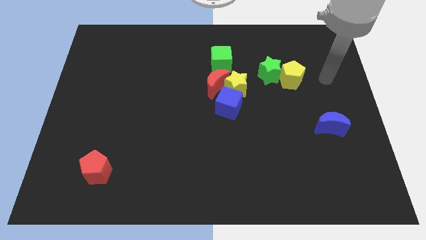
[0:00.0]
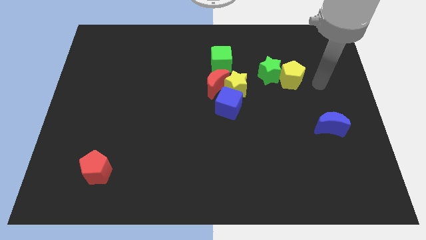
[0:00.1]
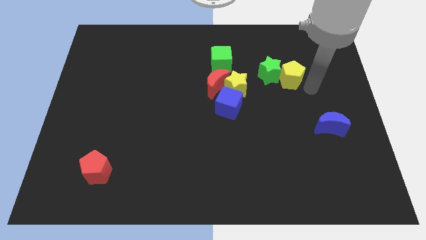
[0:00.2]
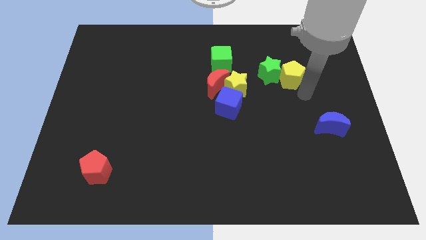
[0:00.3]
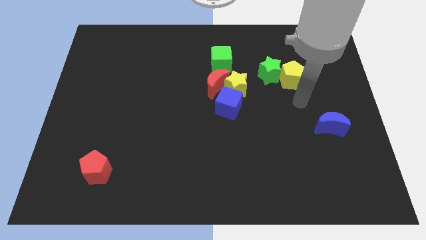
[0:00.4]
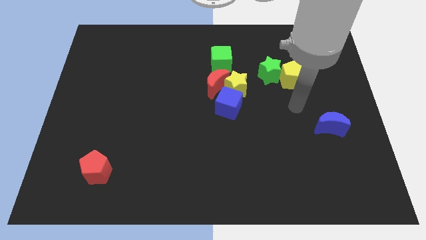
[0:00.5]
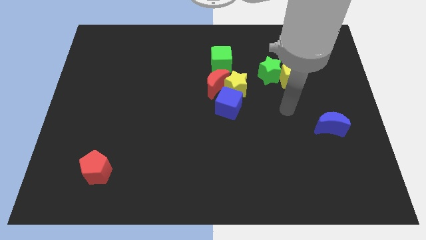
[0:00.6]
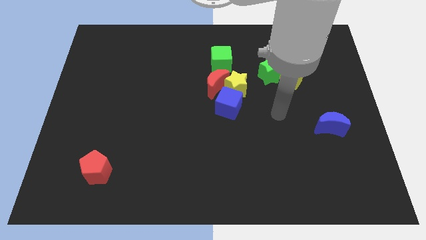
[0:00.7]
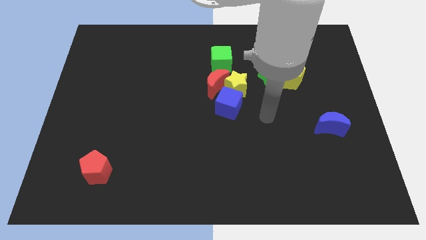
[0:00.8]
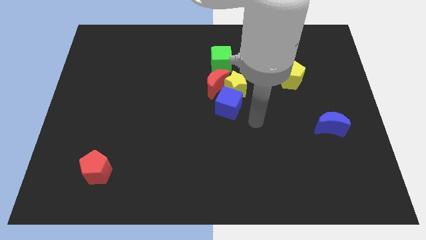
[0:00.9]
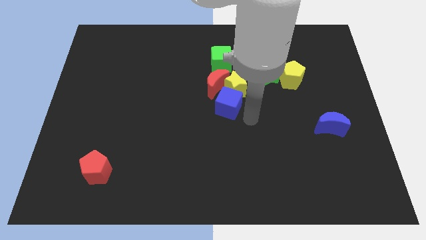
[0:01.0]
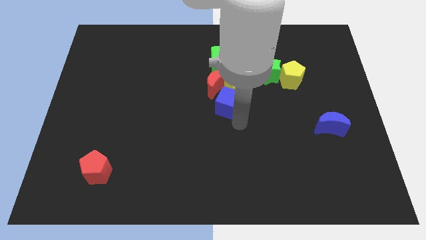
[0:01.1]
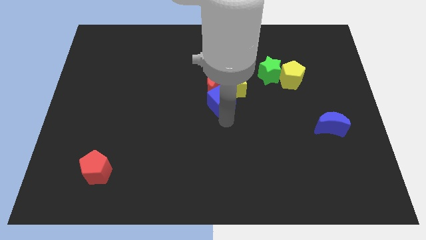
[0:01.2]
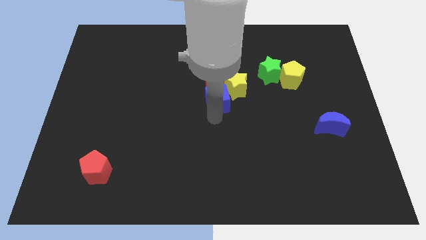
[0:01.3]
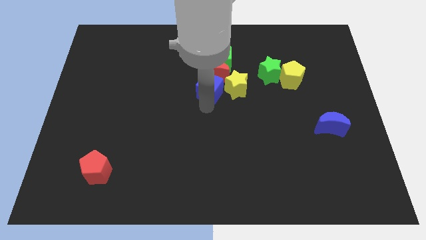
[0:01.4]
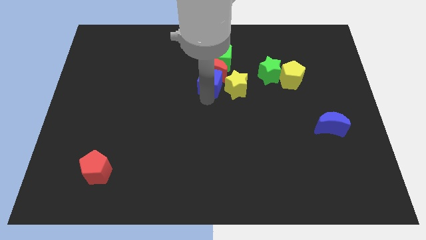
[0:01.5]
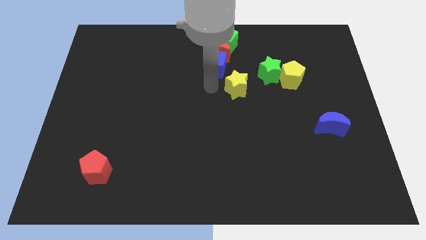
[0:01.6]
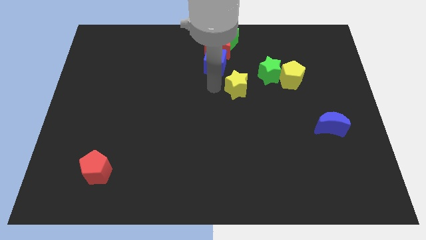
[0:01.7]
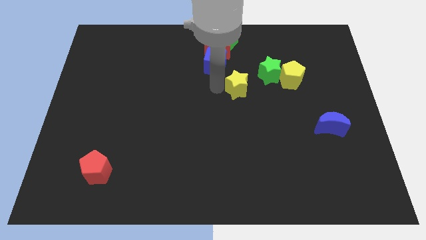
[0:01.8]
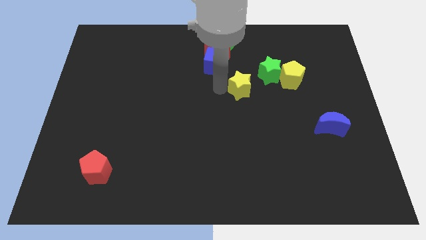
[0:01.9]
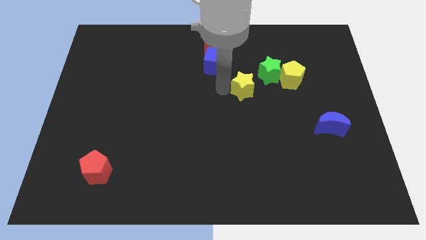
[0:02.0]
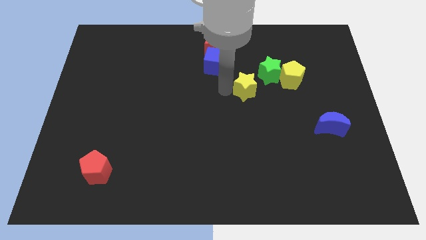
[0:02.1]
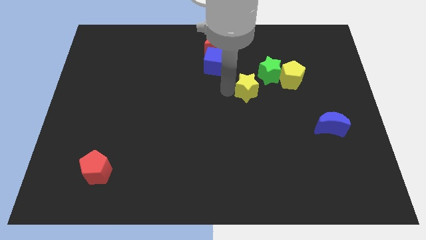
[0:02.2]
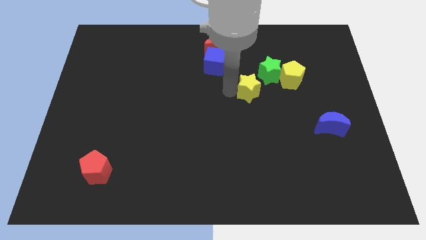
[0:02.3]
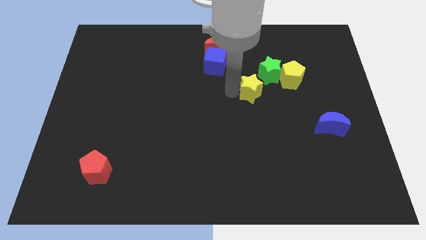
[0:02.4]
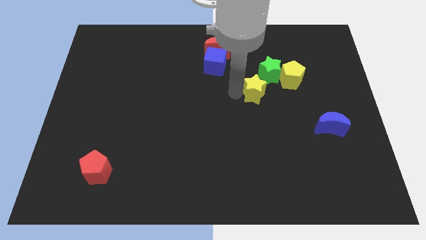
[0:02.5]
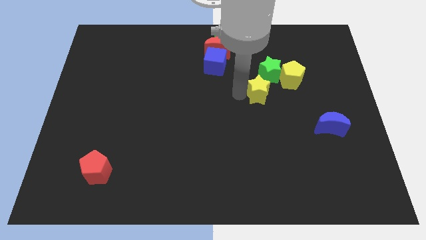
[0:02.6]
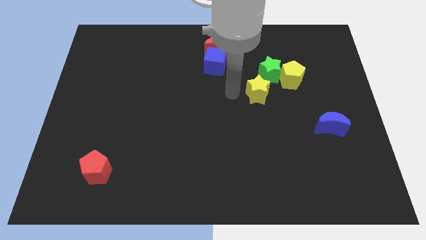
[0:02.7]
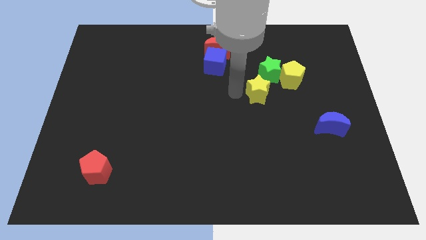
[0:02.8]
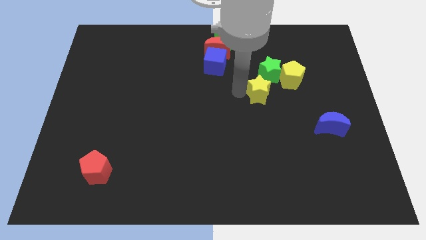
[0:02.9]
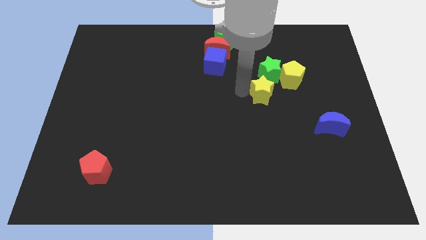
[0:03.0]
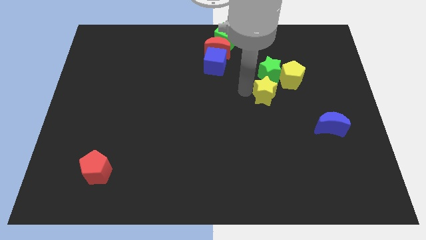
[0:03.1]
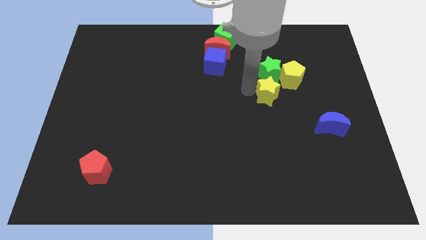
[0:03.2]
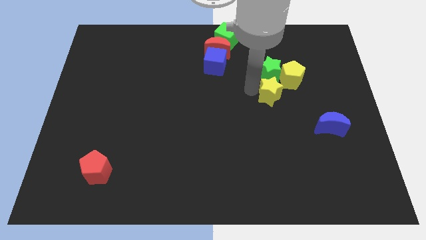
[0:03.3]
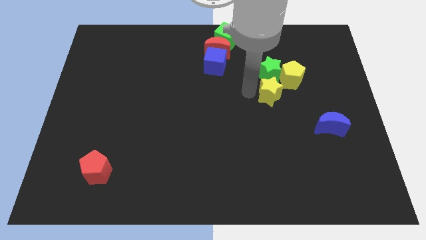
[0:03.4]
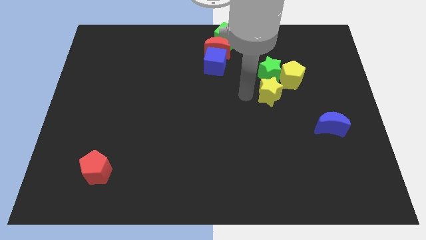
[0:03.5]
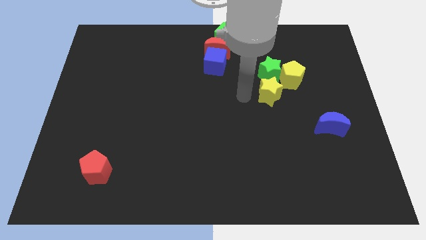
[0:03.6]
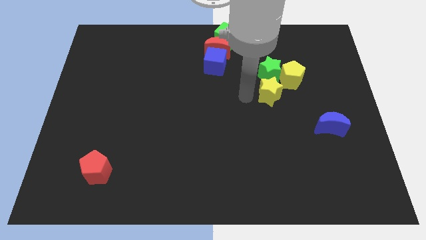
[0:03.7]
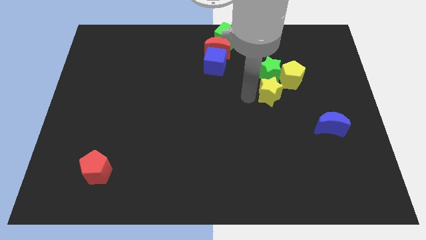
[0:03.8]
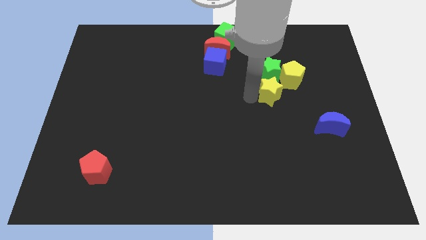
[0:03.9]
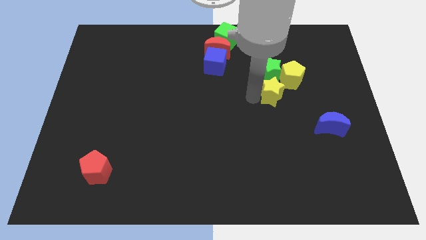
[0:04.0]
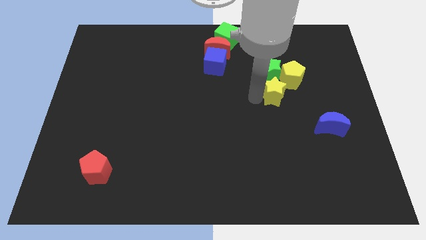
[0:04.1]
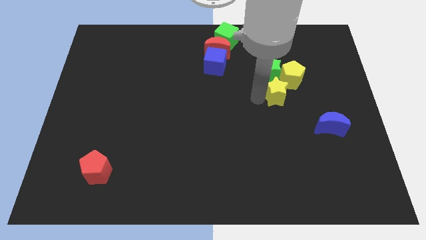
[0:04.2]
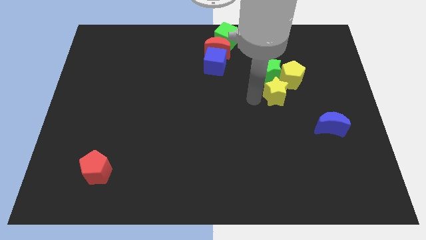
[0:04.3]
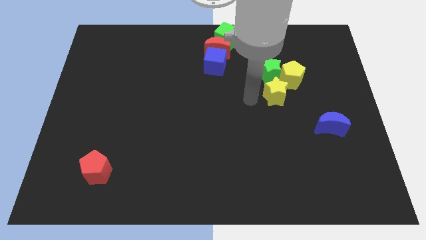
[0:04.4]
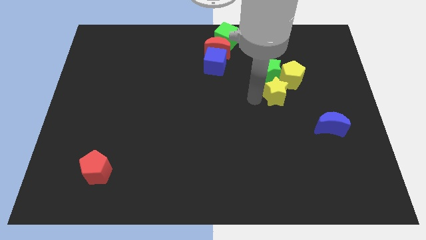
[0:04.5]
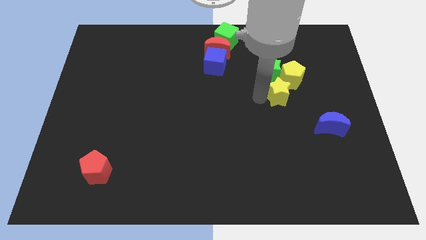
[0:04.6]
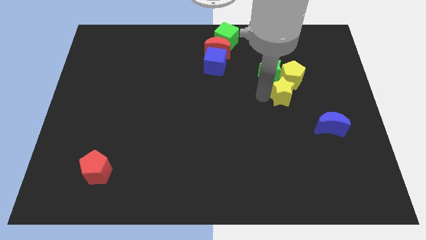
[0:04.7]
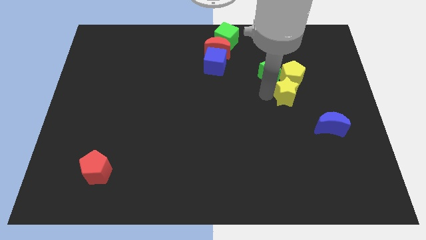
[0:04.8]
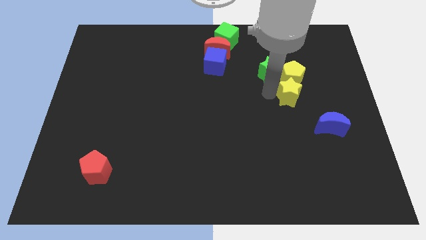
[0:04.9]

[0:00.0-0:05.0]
move the yellow star to the bottom right side of the yellow pentagon

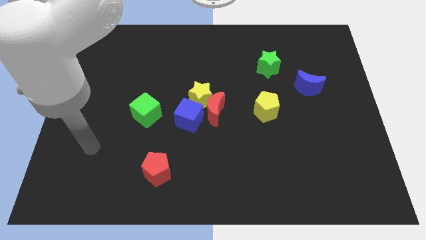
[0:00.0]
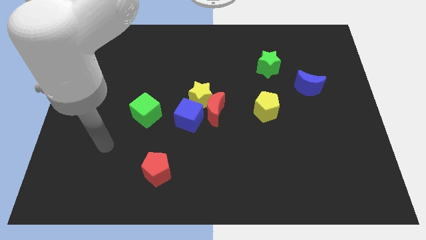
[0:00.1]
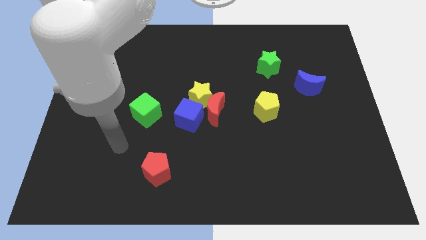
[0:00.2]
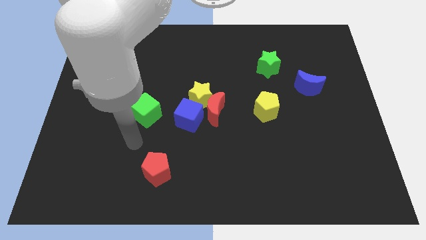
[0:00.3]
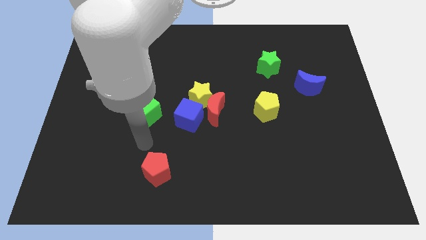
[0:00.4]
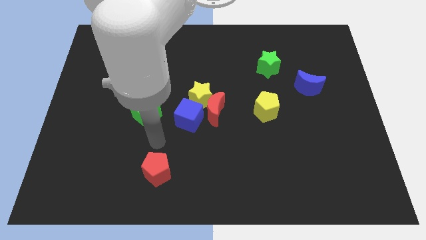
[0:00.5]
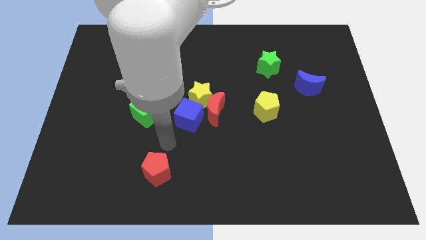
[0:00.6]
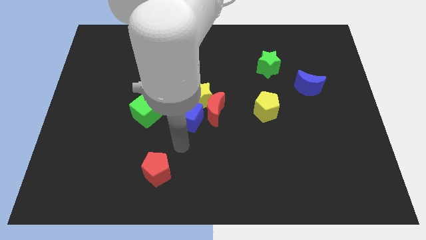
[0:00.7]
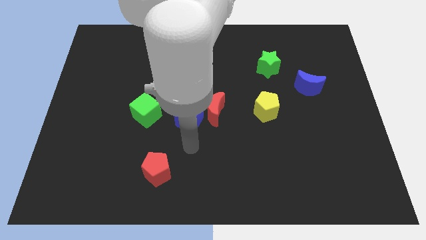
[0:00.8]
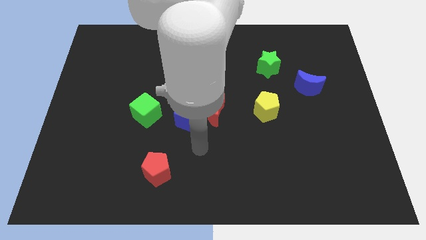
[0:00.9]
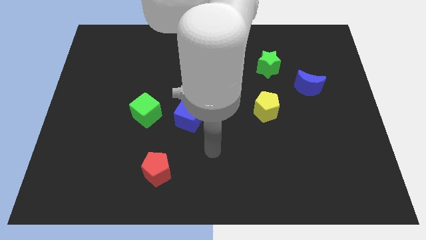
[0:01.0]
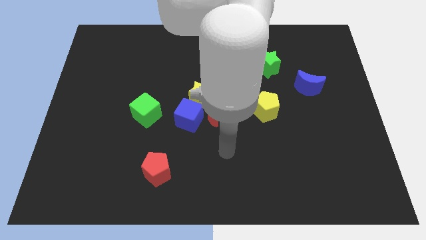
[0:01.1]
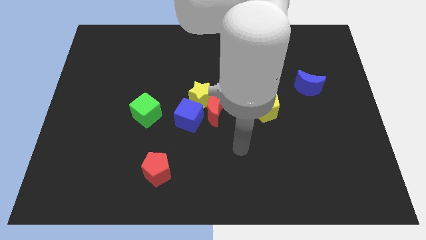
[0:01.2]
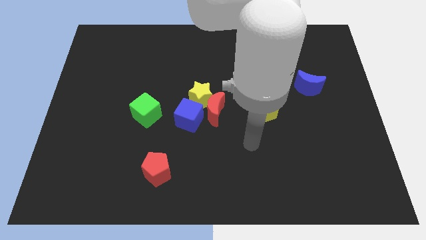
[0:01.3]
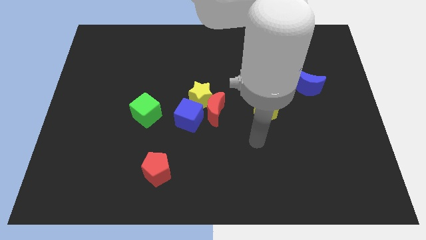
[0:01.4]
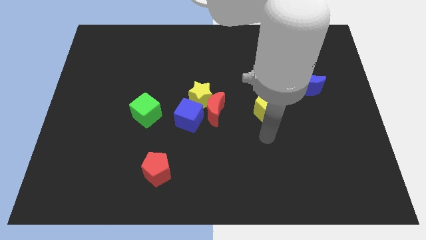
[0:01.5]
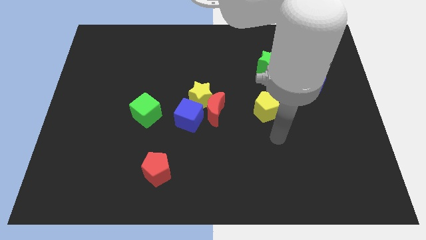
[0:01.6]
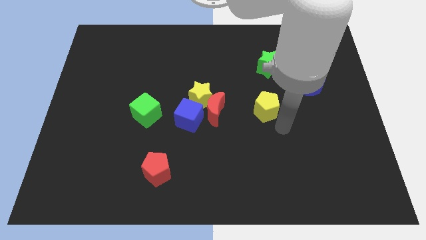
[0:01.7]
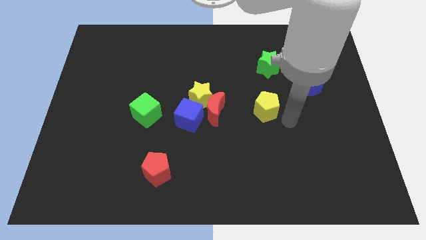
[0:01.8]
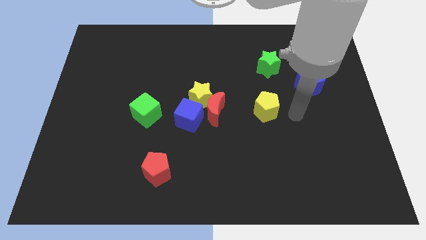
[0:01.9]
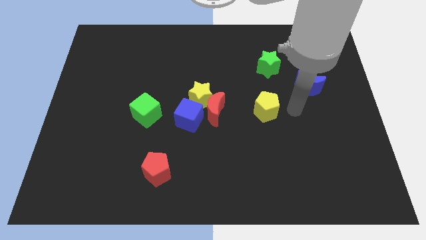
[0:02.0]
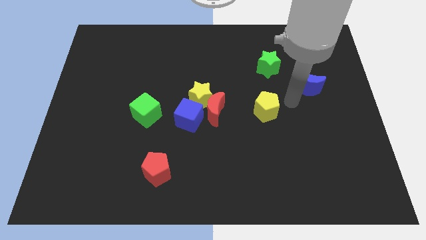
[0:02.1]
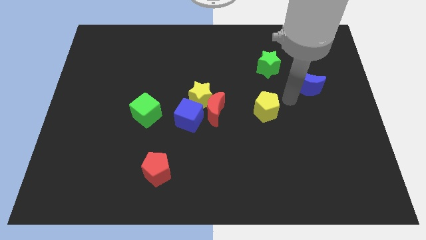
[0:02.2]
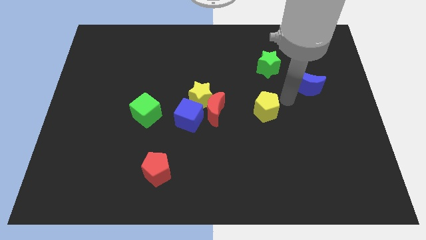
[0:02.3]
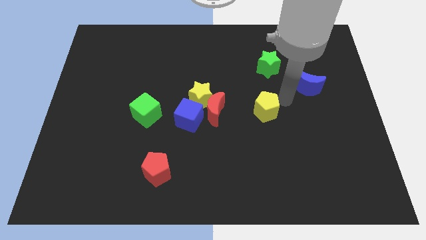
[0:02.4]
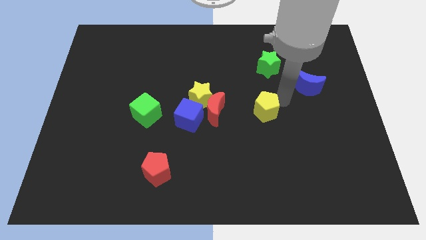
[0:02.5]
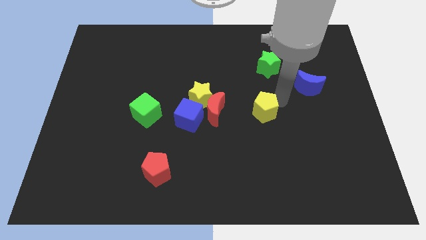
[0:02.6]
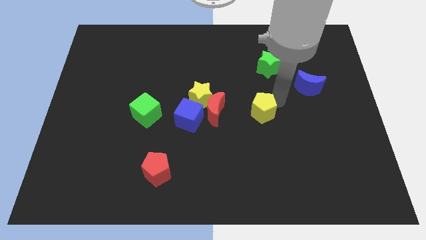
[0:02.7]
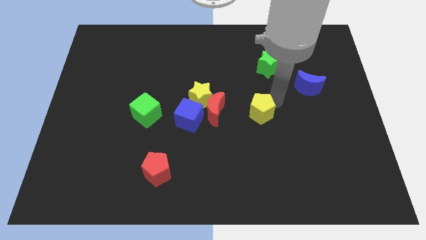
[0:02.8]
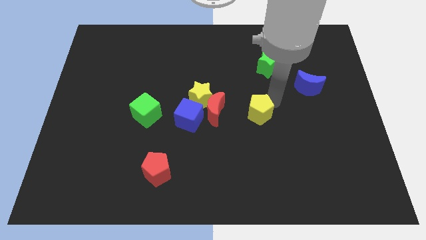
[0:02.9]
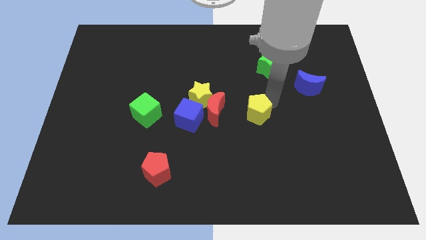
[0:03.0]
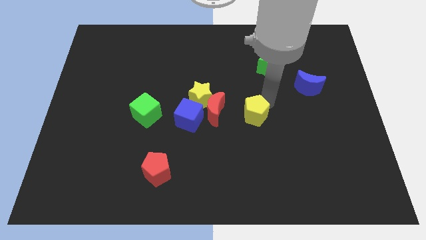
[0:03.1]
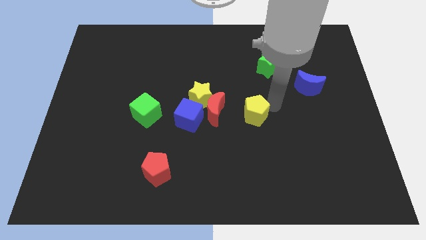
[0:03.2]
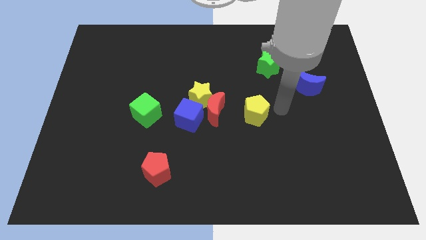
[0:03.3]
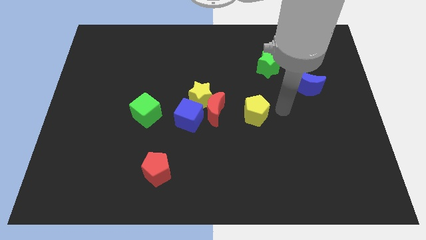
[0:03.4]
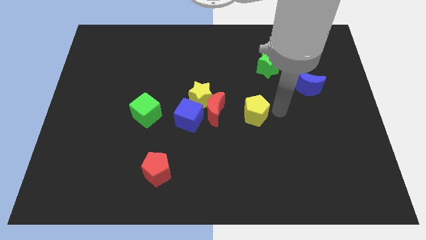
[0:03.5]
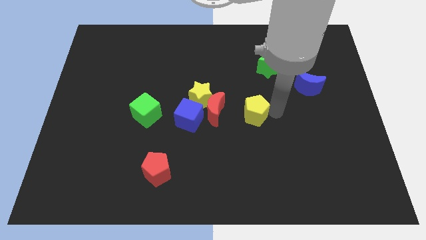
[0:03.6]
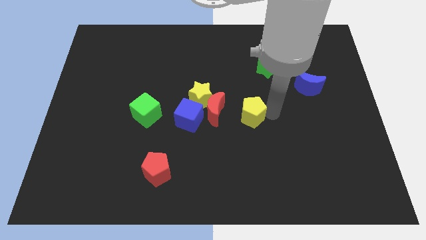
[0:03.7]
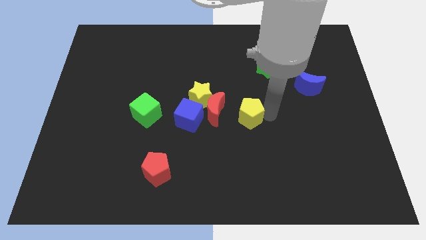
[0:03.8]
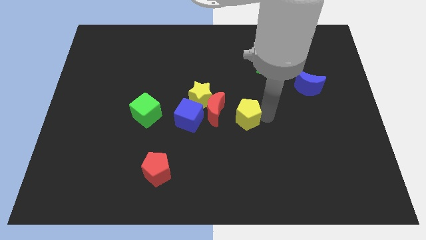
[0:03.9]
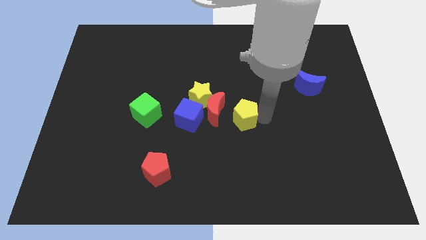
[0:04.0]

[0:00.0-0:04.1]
slide the yellow pentagon to the bottom right side of the yellow star
